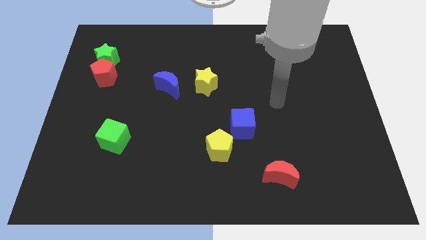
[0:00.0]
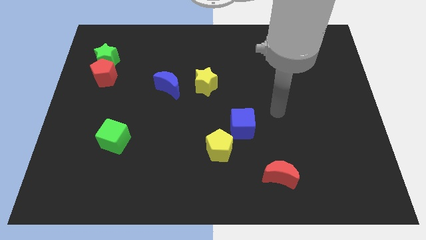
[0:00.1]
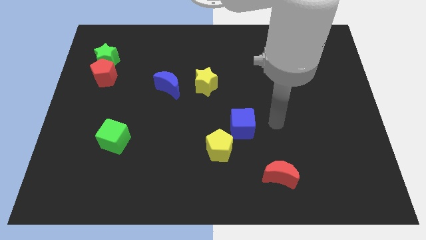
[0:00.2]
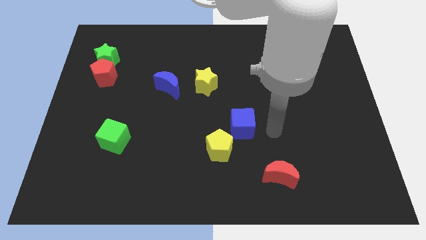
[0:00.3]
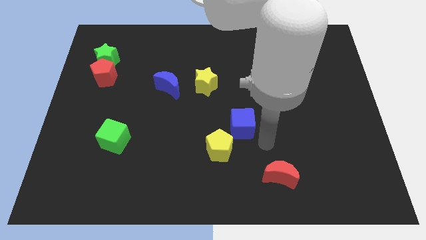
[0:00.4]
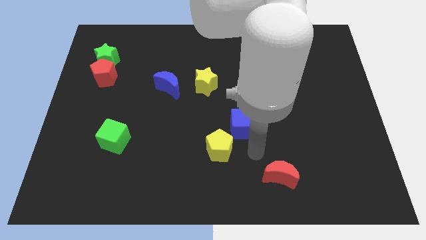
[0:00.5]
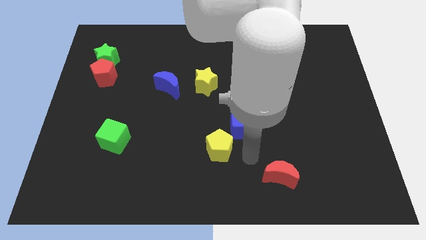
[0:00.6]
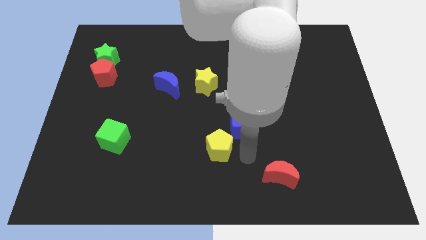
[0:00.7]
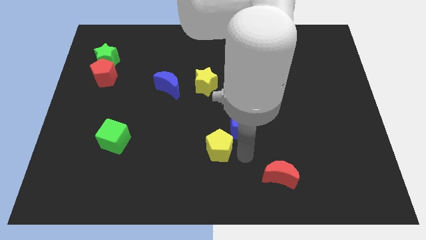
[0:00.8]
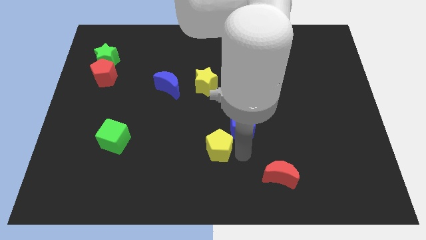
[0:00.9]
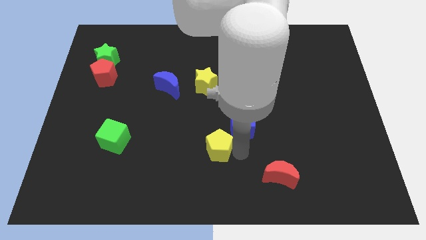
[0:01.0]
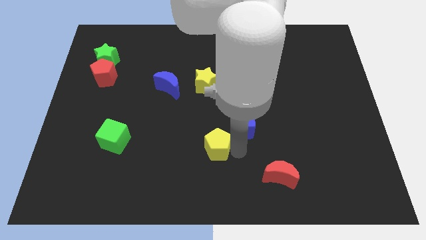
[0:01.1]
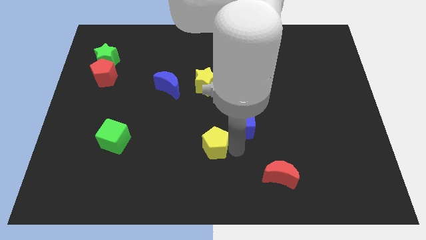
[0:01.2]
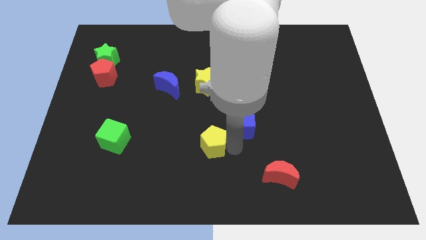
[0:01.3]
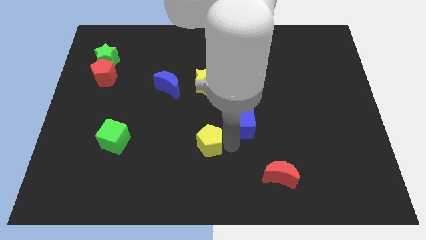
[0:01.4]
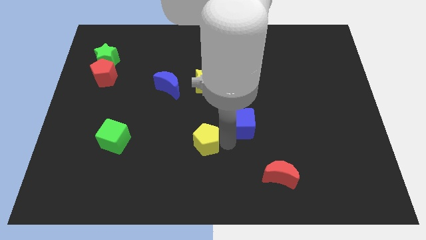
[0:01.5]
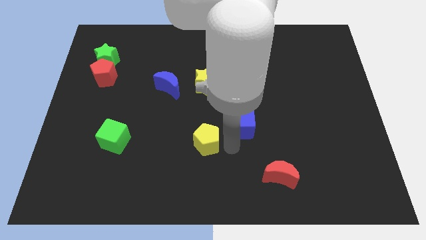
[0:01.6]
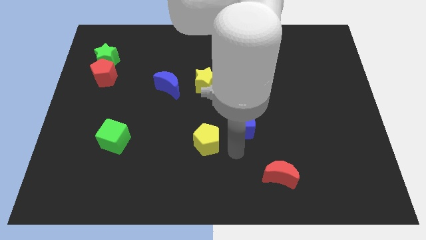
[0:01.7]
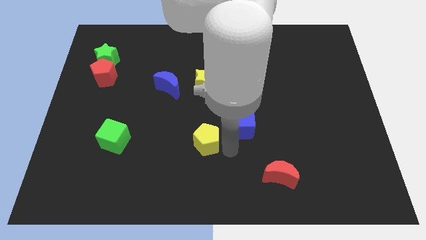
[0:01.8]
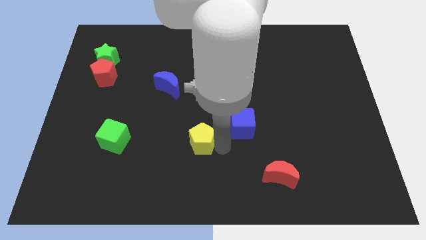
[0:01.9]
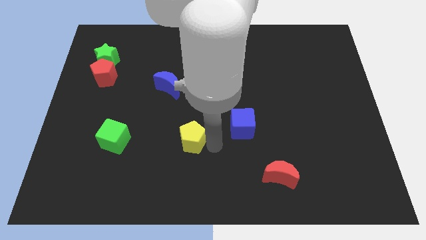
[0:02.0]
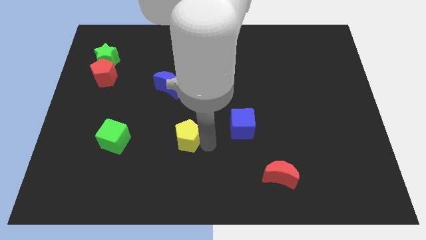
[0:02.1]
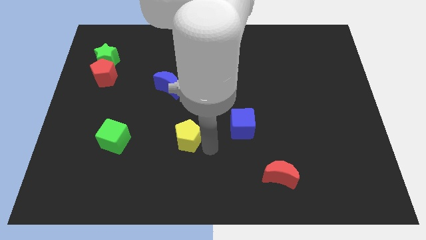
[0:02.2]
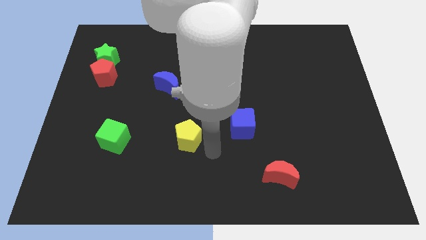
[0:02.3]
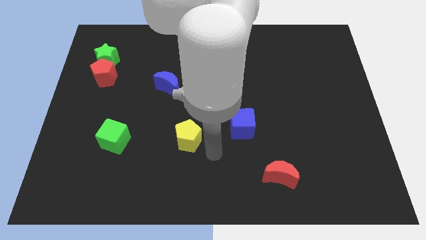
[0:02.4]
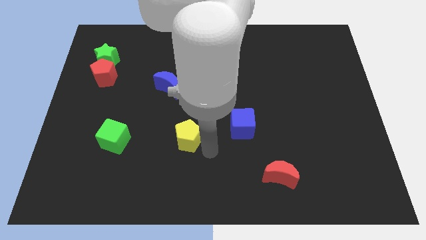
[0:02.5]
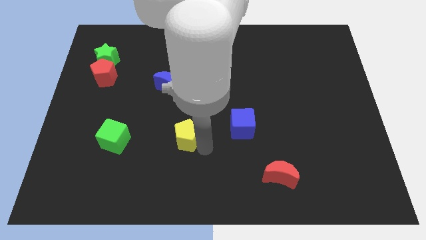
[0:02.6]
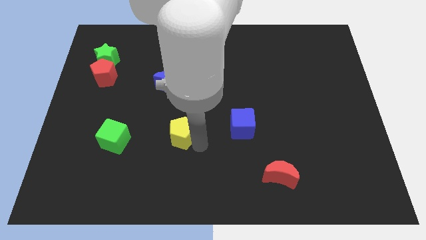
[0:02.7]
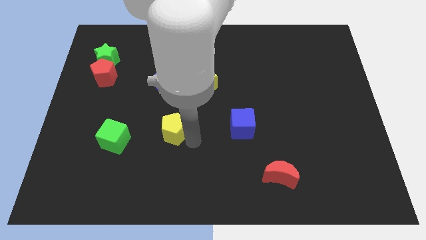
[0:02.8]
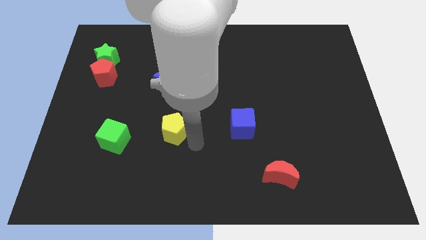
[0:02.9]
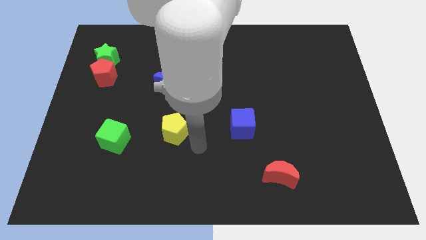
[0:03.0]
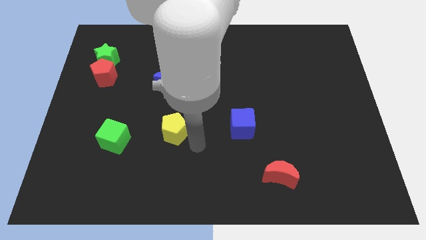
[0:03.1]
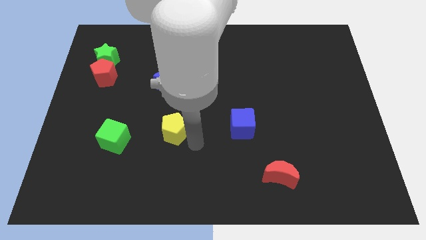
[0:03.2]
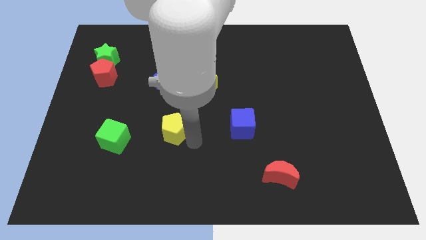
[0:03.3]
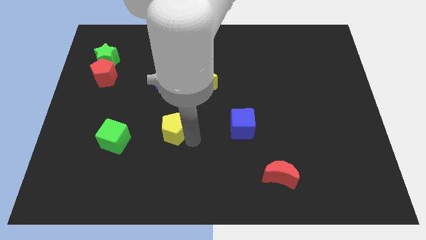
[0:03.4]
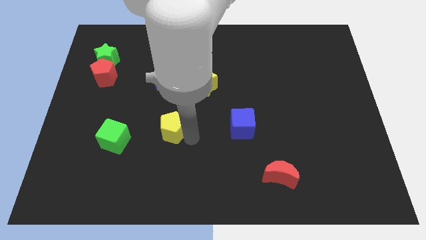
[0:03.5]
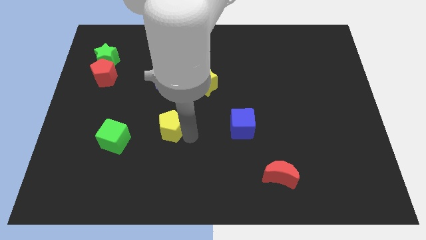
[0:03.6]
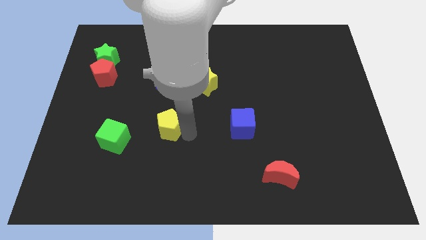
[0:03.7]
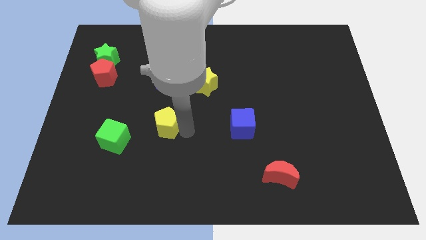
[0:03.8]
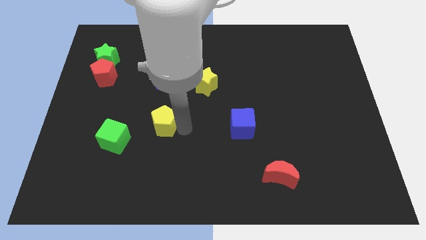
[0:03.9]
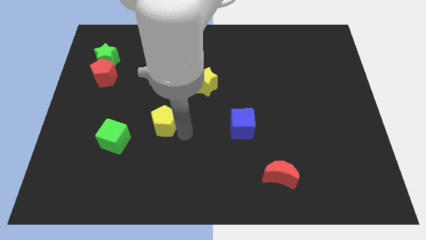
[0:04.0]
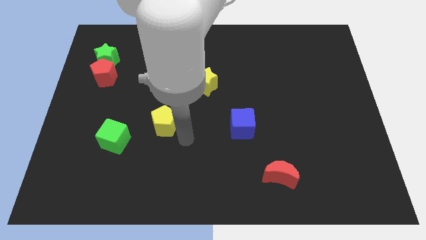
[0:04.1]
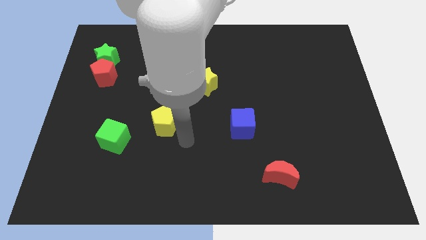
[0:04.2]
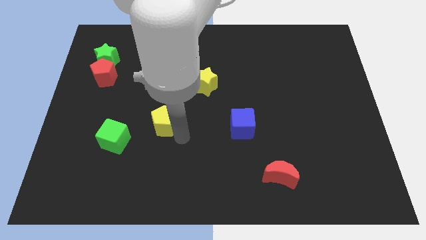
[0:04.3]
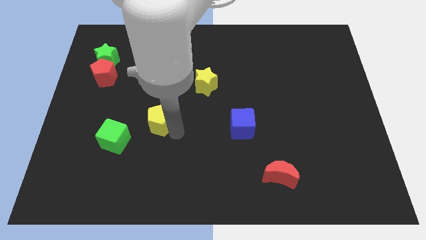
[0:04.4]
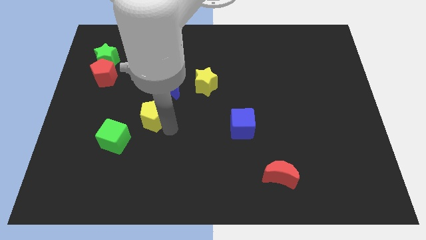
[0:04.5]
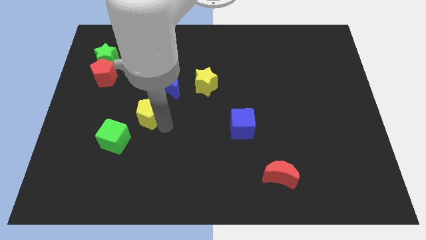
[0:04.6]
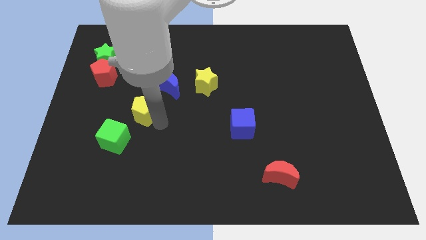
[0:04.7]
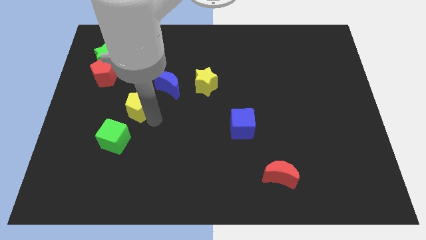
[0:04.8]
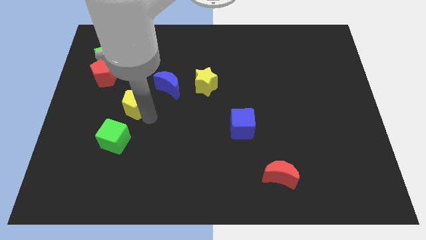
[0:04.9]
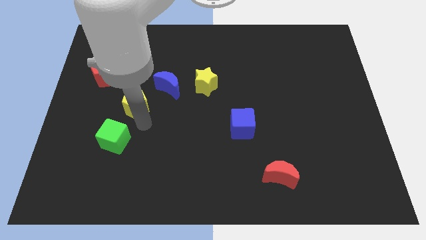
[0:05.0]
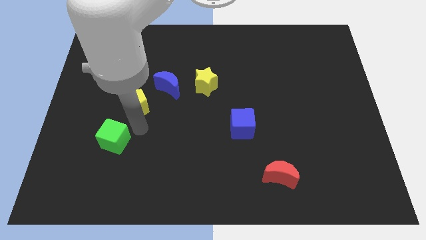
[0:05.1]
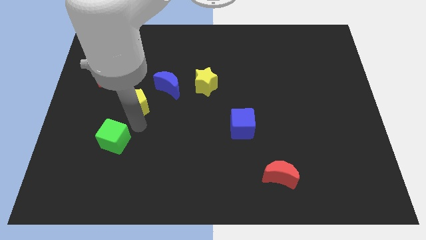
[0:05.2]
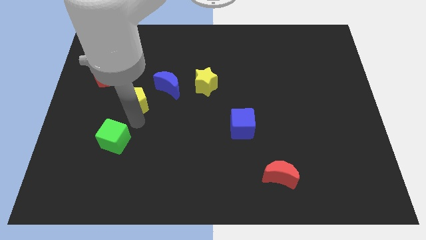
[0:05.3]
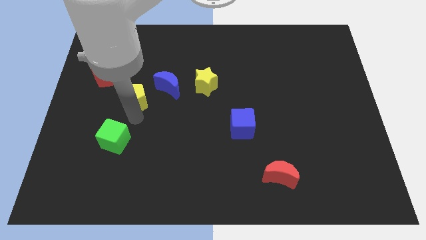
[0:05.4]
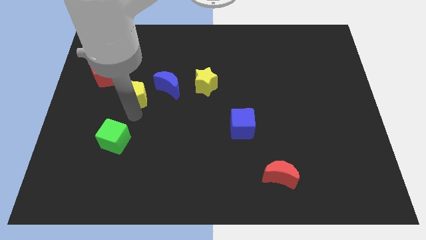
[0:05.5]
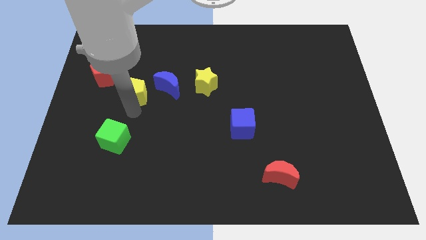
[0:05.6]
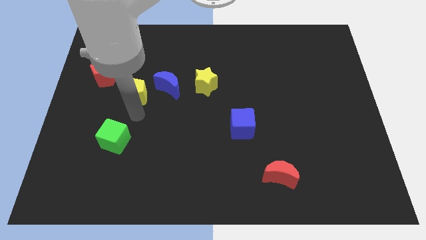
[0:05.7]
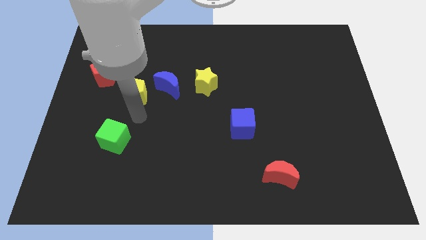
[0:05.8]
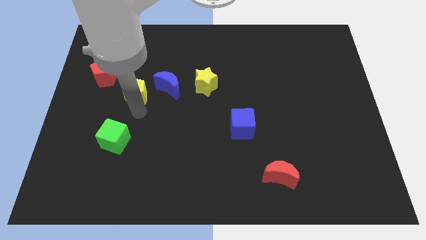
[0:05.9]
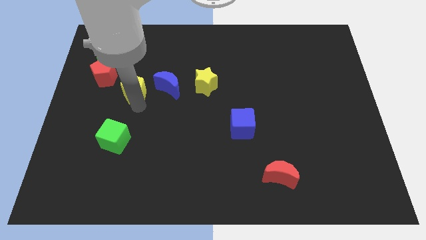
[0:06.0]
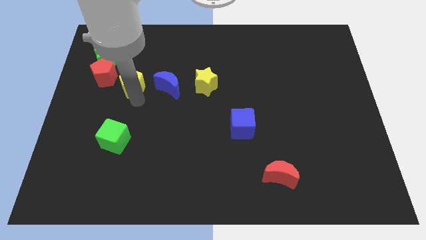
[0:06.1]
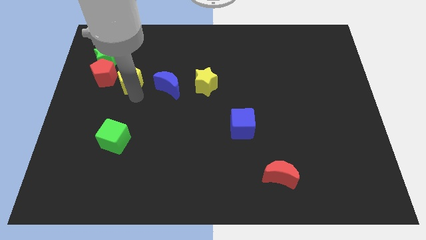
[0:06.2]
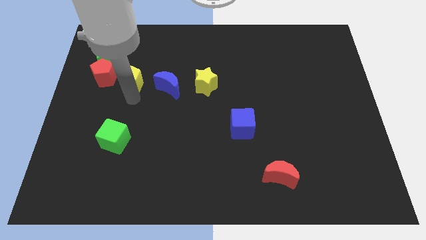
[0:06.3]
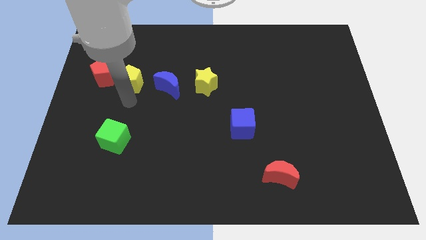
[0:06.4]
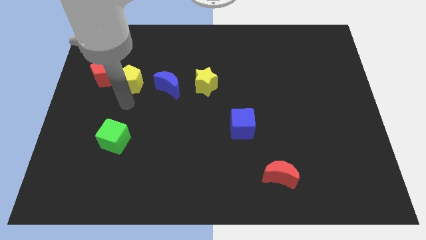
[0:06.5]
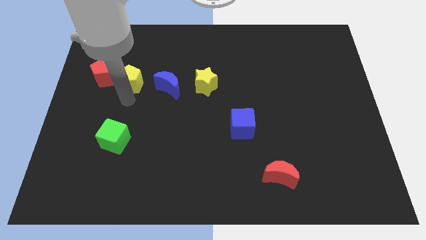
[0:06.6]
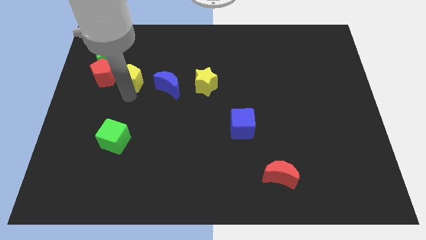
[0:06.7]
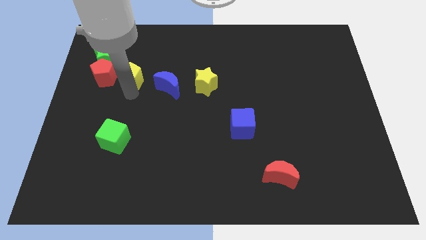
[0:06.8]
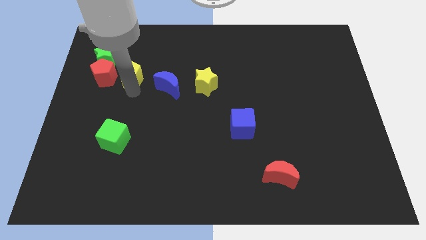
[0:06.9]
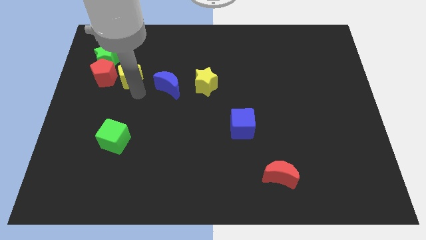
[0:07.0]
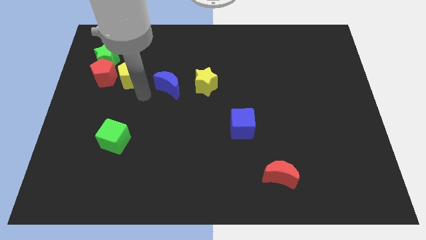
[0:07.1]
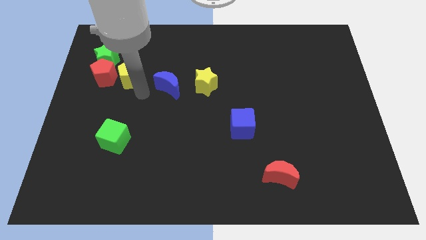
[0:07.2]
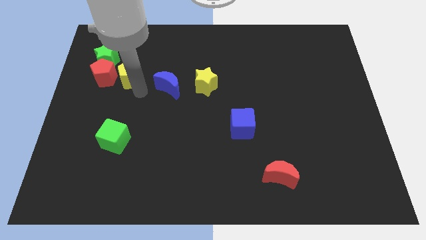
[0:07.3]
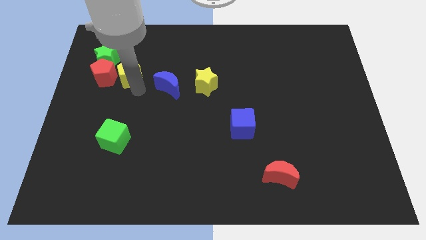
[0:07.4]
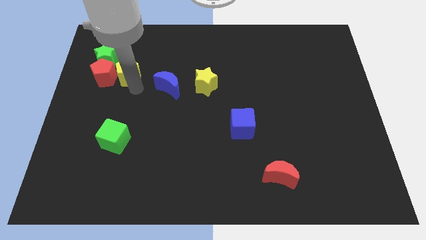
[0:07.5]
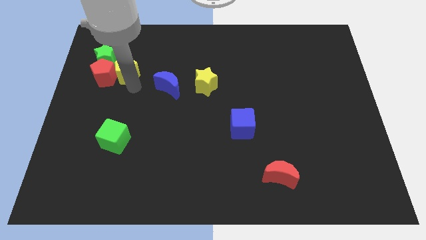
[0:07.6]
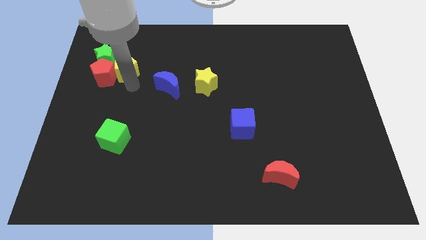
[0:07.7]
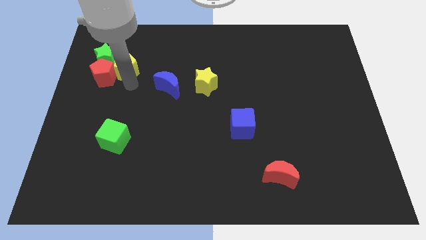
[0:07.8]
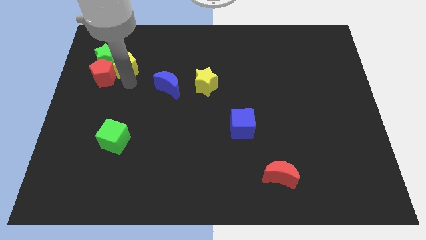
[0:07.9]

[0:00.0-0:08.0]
push the yellow pentagon next to the green star
